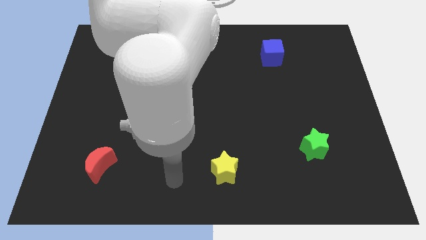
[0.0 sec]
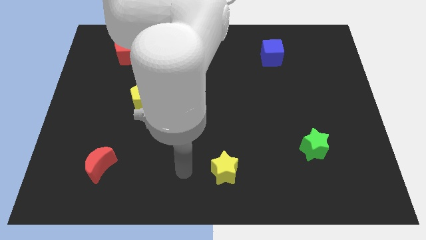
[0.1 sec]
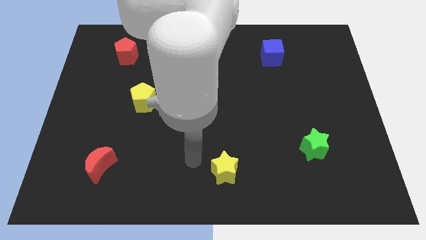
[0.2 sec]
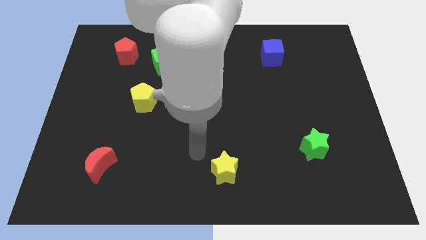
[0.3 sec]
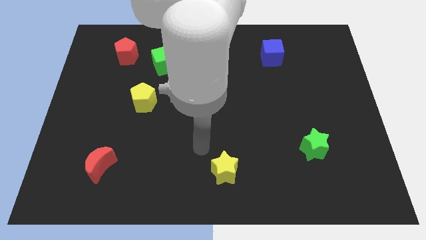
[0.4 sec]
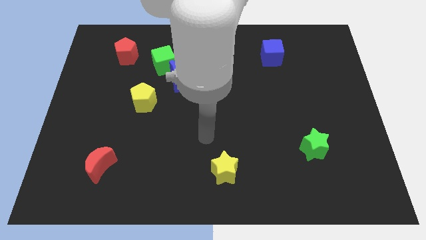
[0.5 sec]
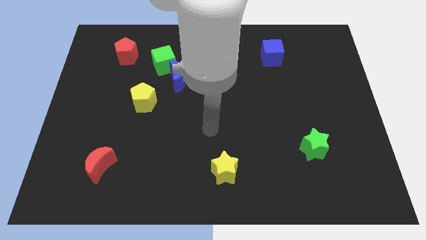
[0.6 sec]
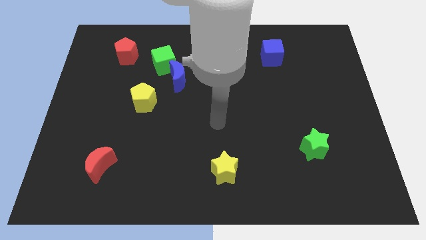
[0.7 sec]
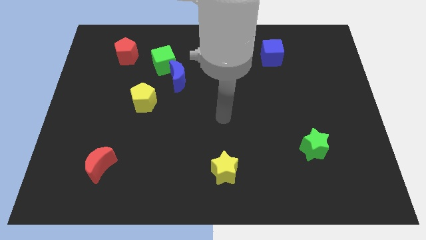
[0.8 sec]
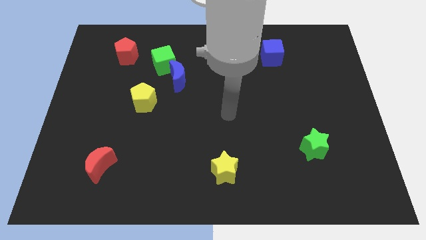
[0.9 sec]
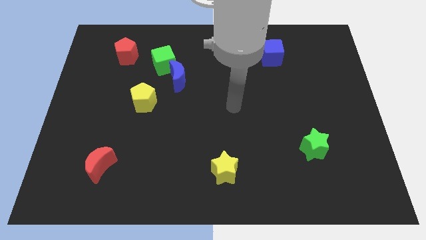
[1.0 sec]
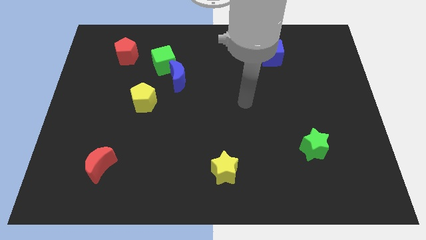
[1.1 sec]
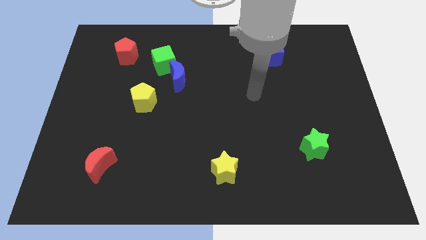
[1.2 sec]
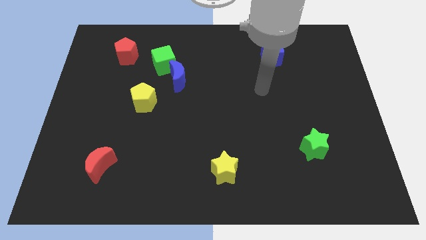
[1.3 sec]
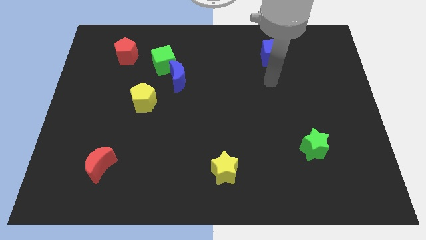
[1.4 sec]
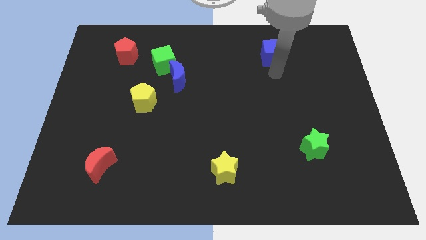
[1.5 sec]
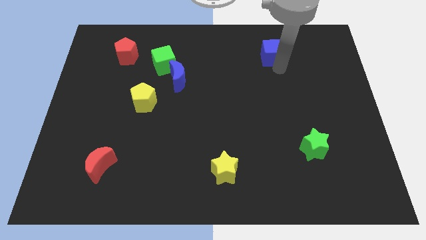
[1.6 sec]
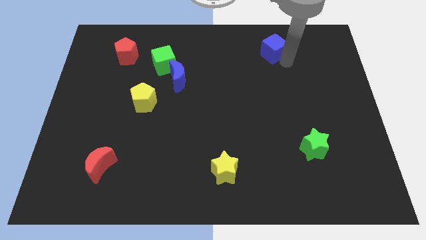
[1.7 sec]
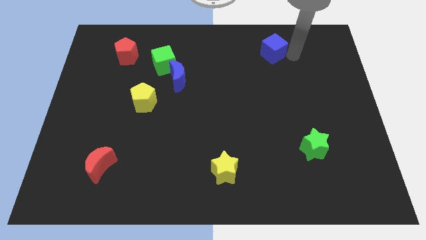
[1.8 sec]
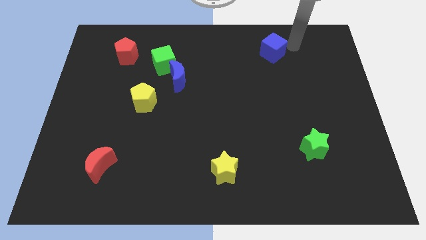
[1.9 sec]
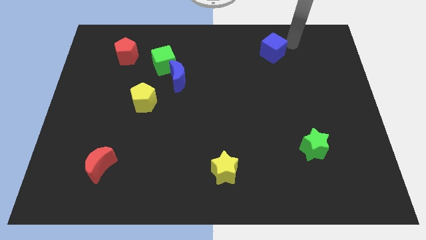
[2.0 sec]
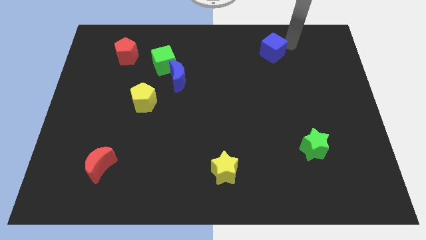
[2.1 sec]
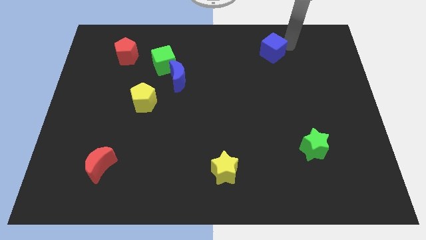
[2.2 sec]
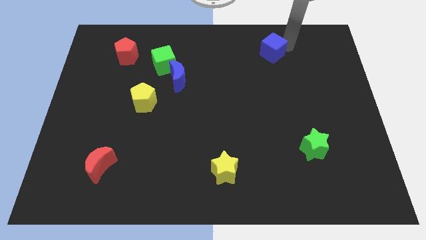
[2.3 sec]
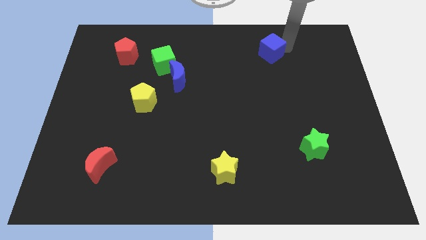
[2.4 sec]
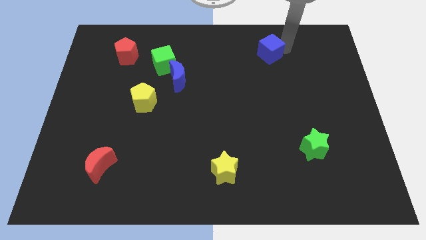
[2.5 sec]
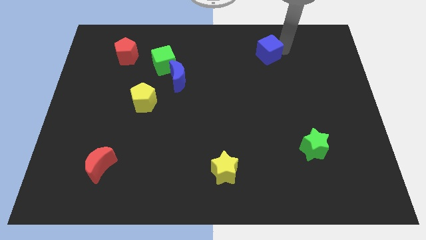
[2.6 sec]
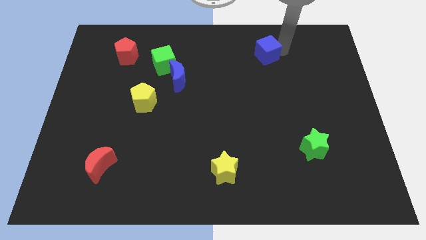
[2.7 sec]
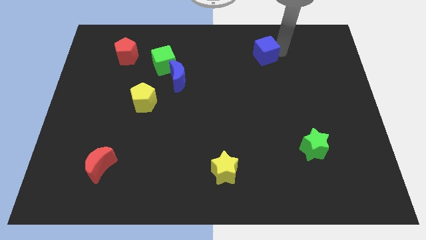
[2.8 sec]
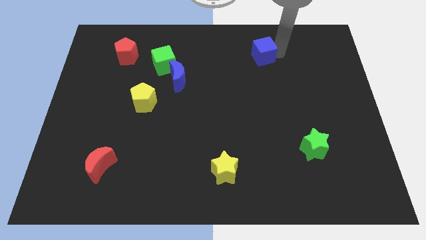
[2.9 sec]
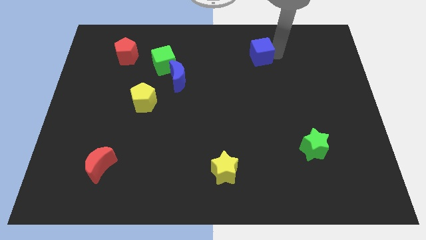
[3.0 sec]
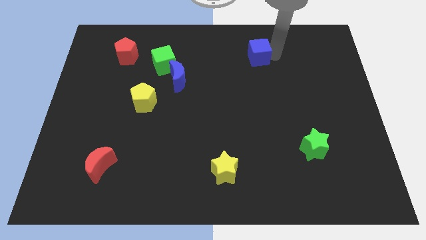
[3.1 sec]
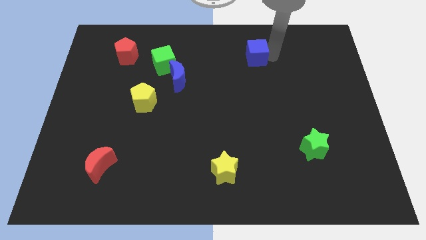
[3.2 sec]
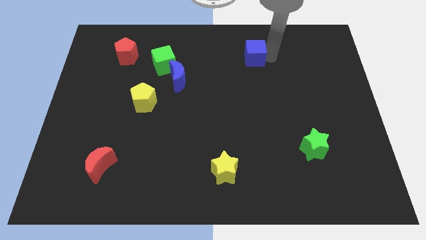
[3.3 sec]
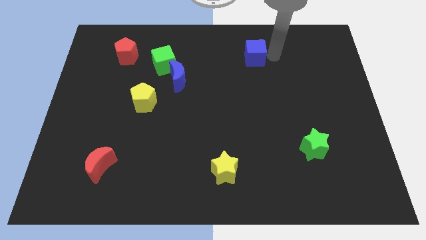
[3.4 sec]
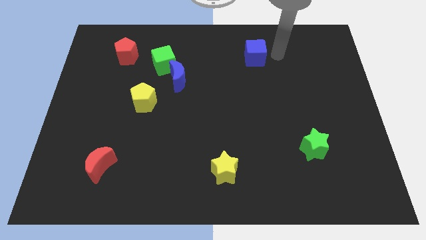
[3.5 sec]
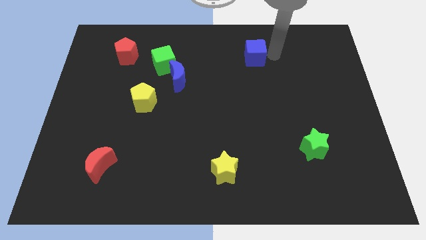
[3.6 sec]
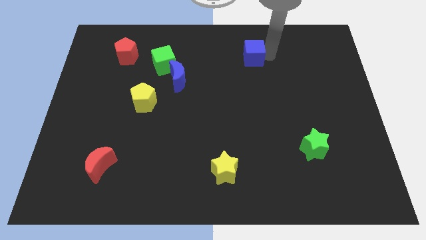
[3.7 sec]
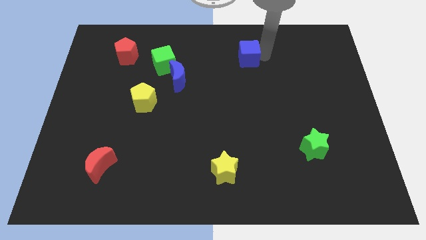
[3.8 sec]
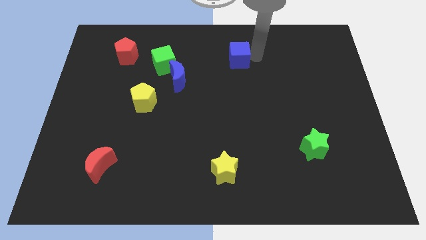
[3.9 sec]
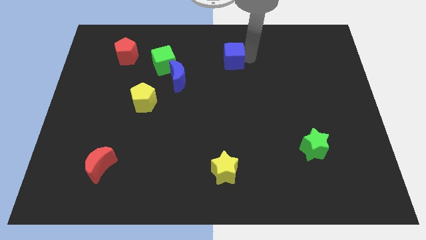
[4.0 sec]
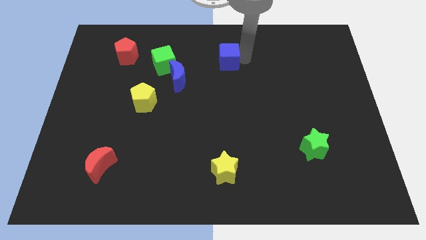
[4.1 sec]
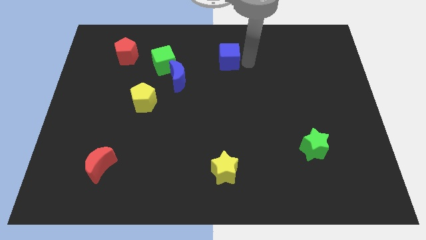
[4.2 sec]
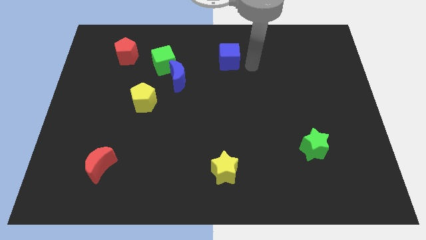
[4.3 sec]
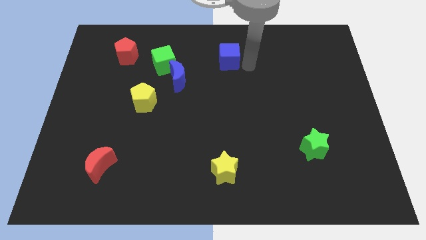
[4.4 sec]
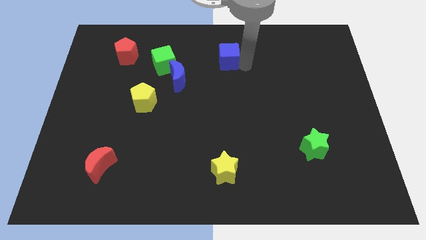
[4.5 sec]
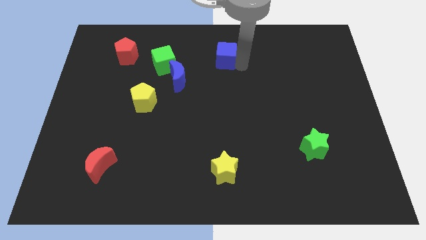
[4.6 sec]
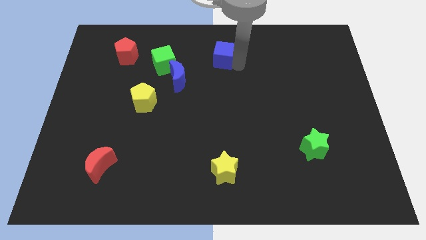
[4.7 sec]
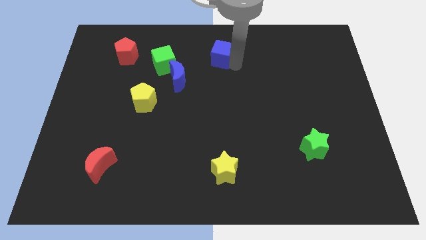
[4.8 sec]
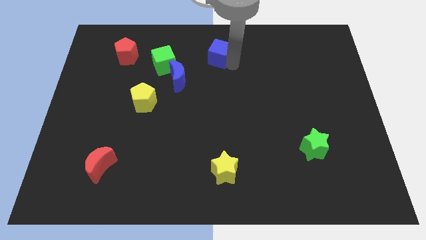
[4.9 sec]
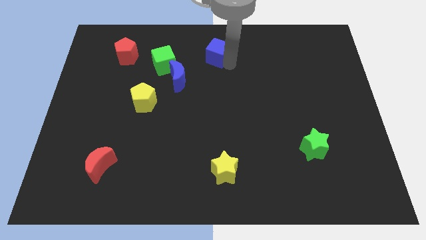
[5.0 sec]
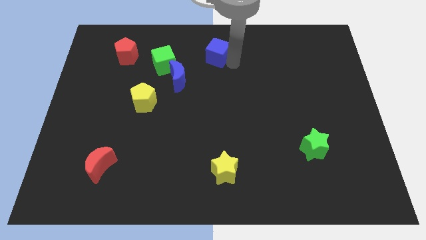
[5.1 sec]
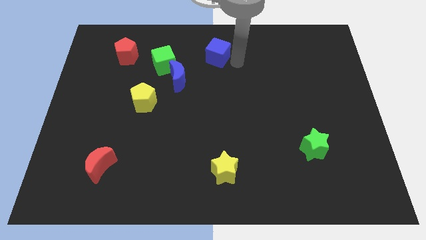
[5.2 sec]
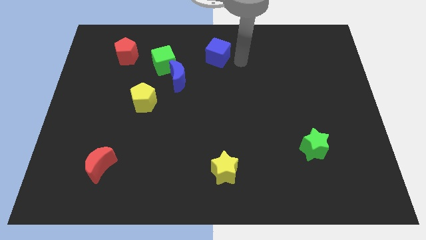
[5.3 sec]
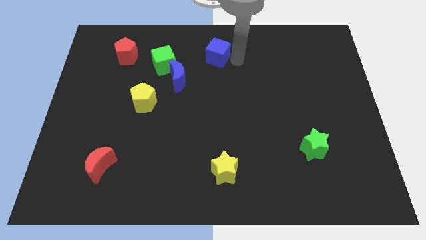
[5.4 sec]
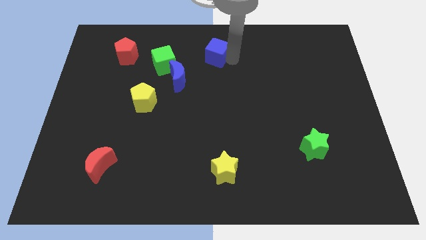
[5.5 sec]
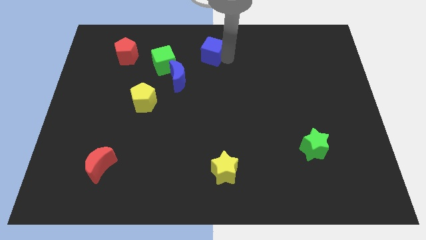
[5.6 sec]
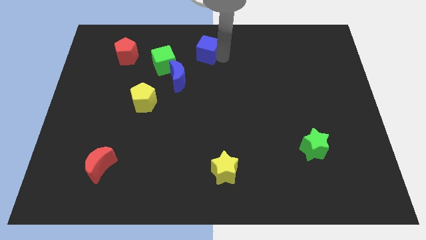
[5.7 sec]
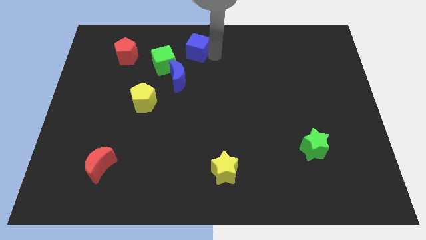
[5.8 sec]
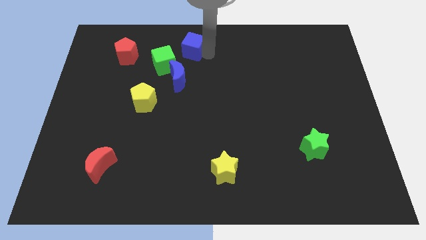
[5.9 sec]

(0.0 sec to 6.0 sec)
push the blue cube to the left

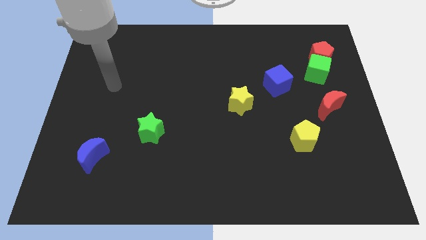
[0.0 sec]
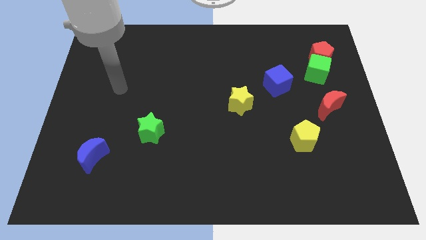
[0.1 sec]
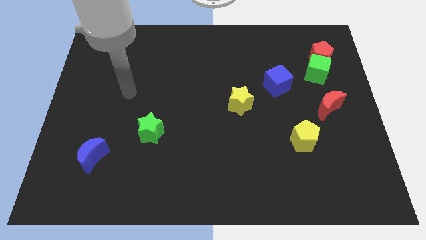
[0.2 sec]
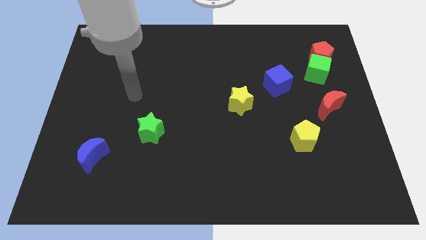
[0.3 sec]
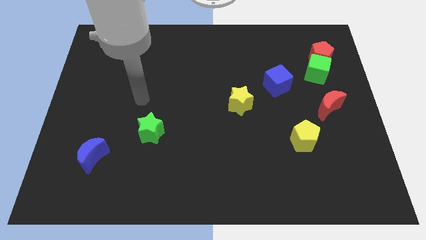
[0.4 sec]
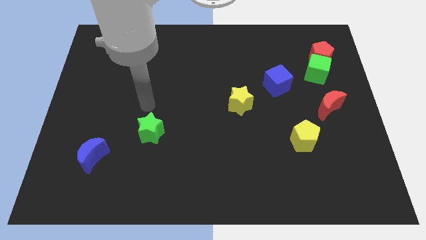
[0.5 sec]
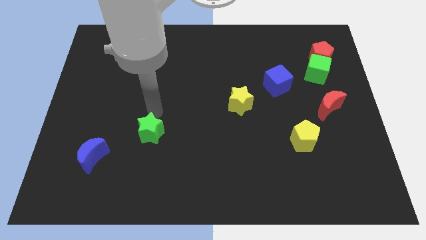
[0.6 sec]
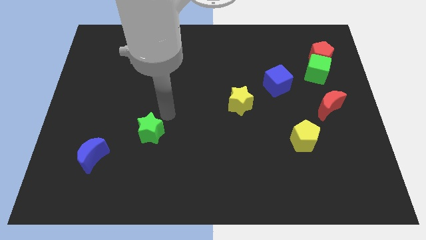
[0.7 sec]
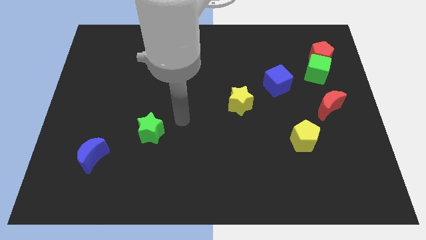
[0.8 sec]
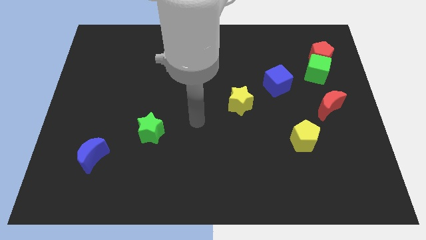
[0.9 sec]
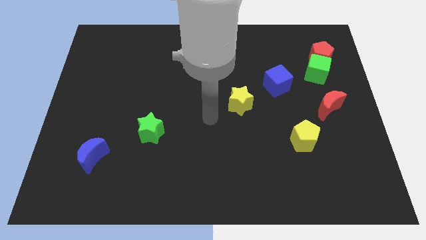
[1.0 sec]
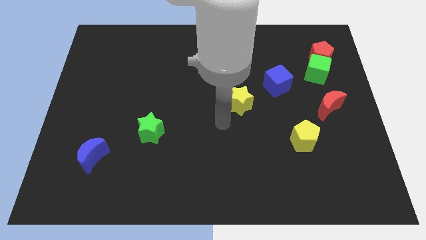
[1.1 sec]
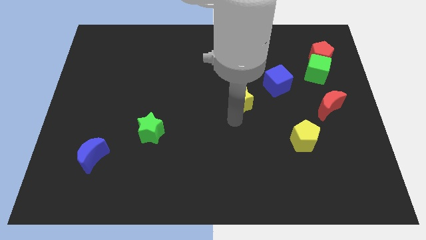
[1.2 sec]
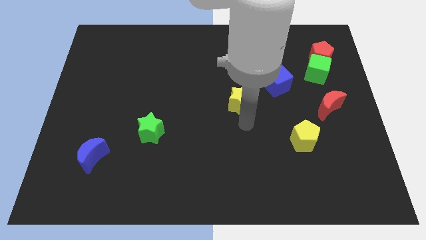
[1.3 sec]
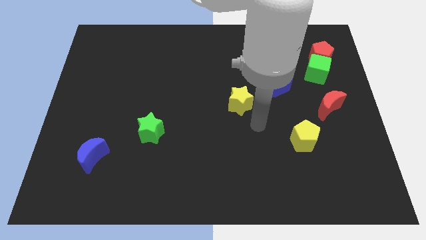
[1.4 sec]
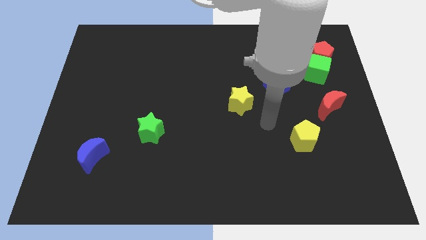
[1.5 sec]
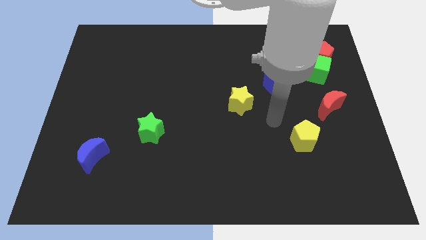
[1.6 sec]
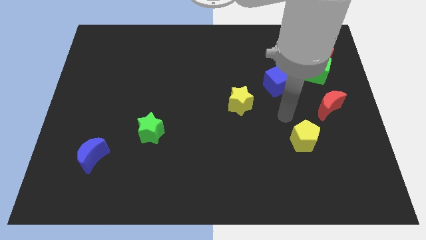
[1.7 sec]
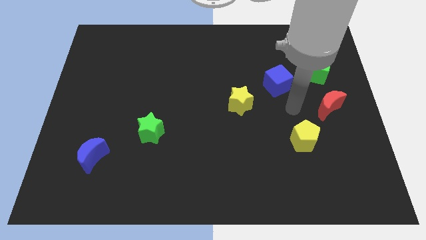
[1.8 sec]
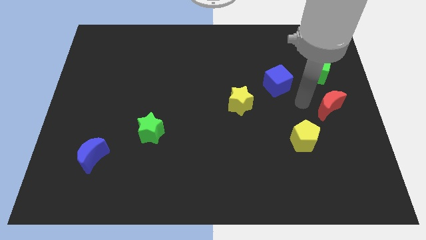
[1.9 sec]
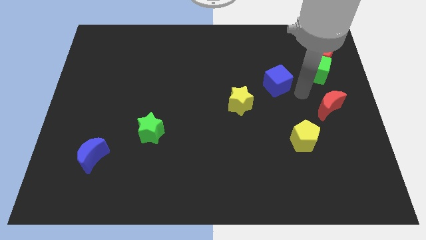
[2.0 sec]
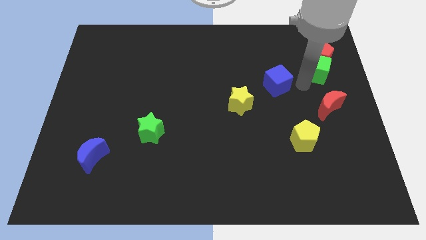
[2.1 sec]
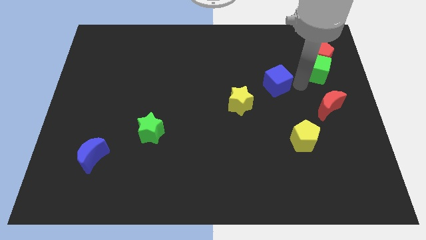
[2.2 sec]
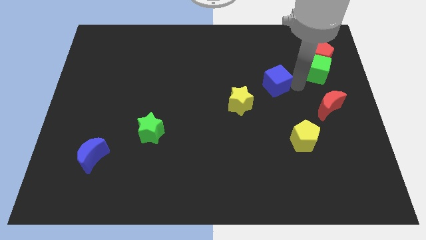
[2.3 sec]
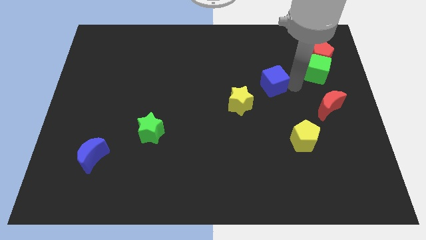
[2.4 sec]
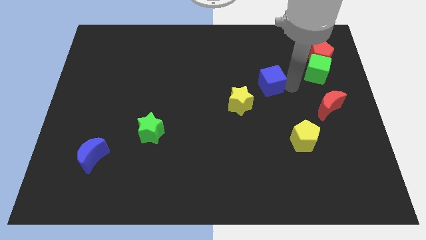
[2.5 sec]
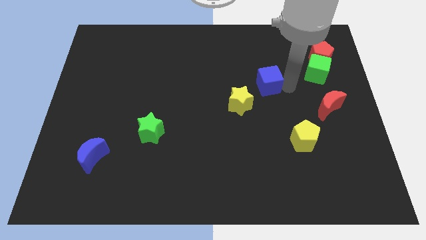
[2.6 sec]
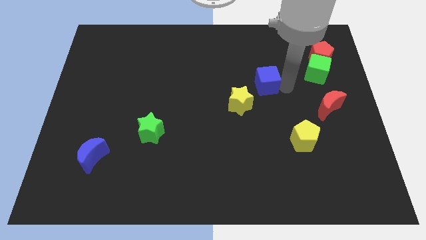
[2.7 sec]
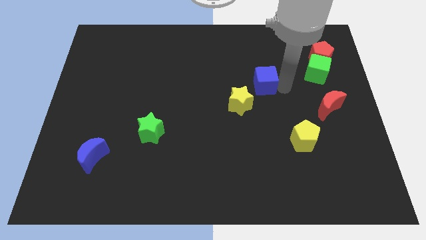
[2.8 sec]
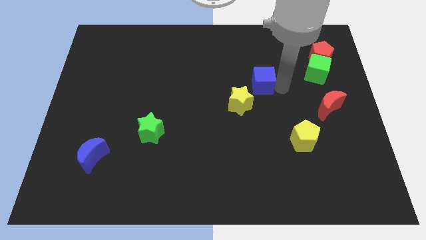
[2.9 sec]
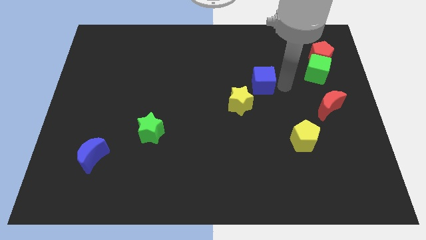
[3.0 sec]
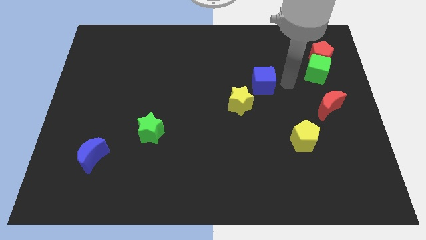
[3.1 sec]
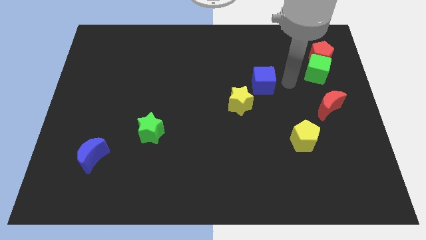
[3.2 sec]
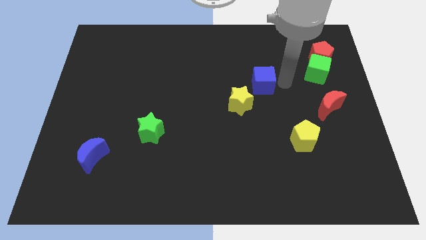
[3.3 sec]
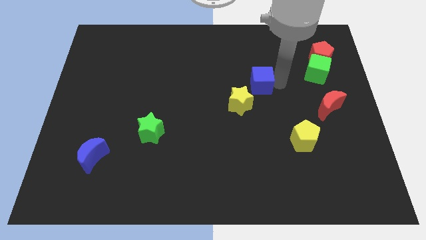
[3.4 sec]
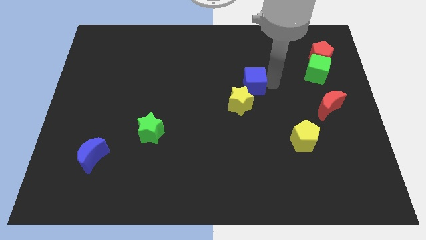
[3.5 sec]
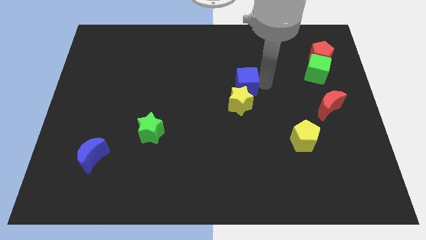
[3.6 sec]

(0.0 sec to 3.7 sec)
slightly slide the blue cube left
